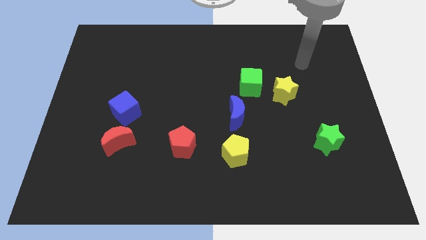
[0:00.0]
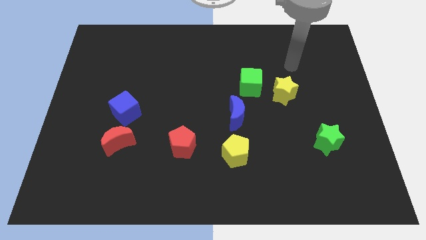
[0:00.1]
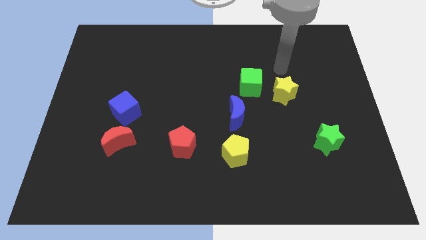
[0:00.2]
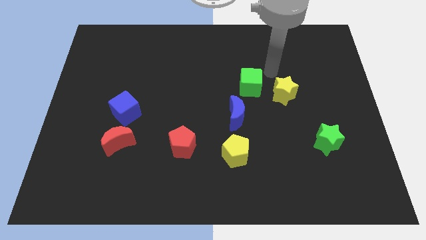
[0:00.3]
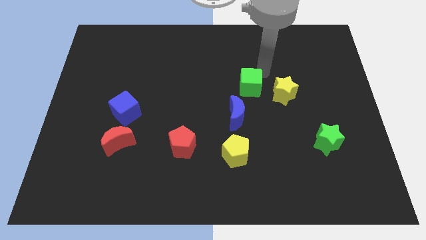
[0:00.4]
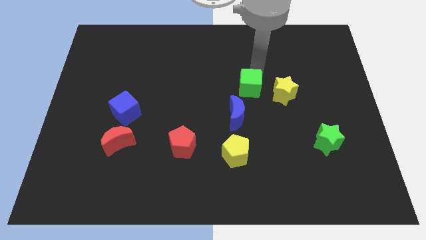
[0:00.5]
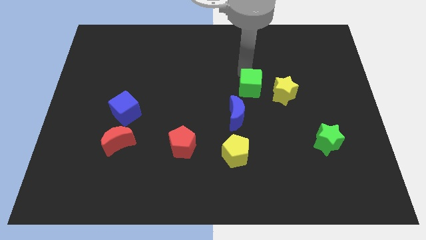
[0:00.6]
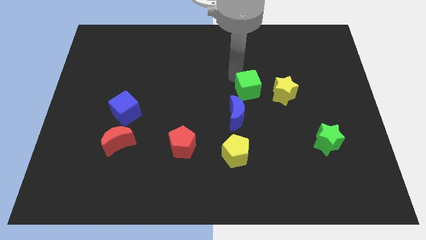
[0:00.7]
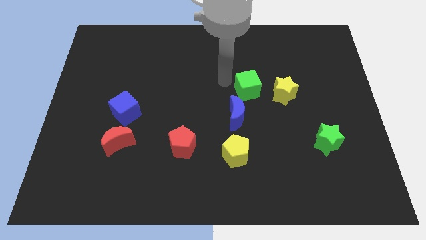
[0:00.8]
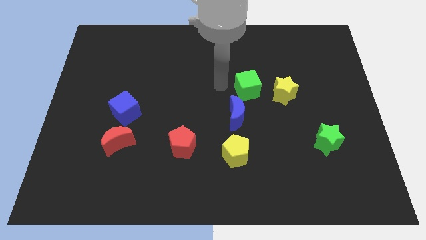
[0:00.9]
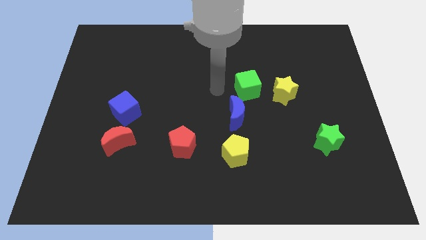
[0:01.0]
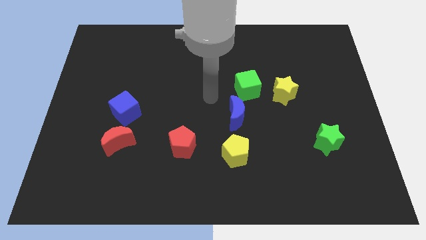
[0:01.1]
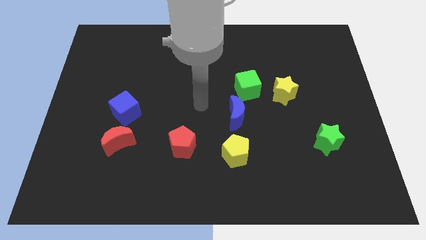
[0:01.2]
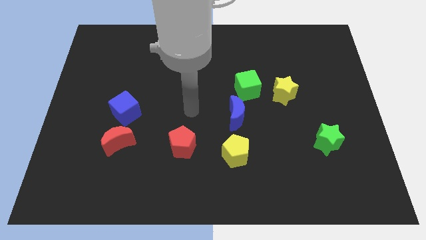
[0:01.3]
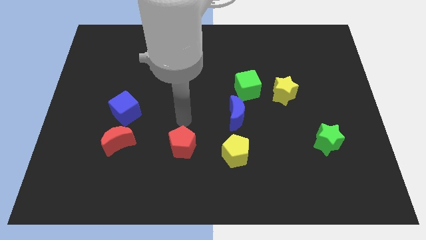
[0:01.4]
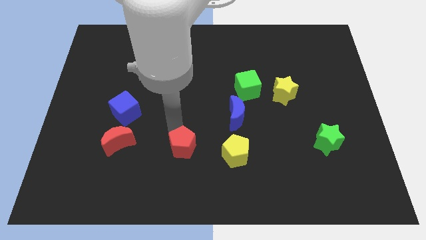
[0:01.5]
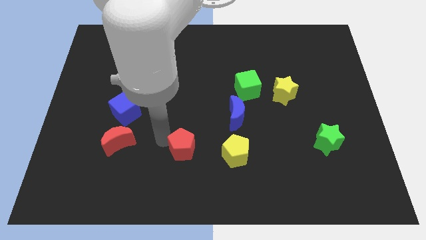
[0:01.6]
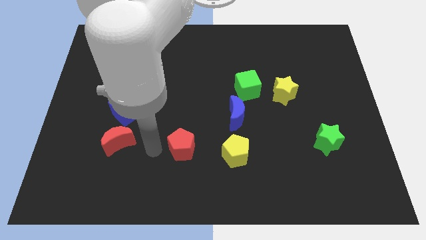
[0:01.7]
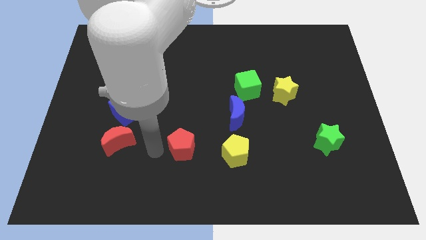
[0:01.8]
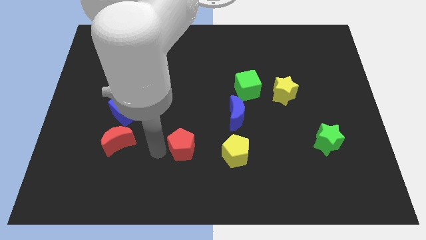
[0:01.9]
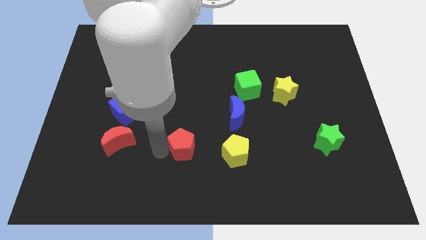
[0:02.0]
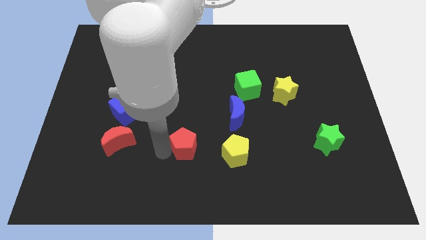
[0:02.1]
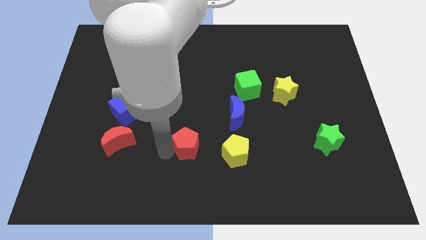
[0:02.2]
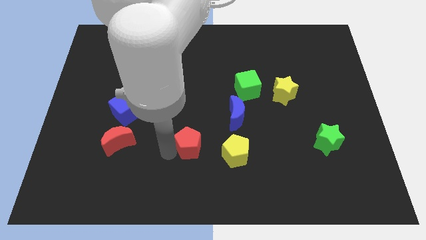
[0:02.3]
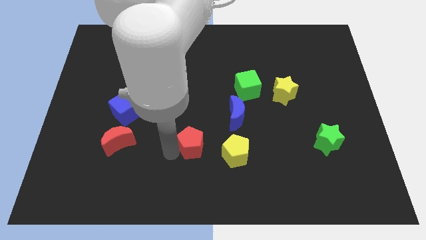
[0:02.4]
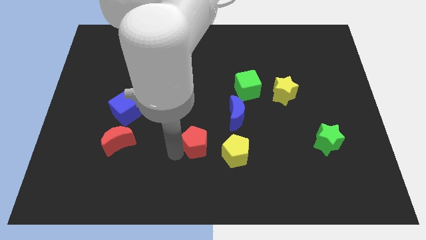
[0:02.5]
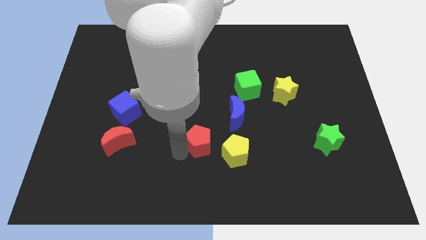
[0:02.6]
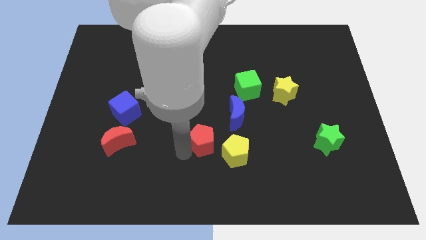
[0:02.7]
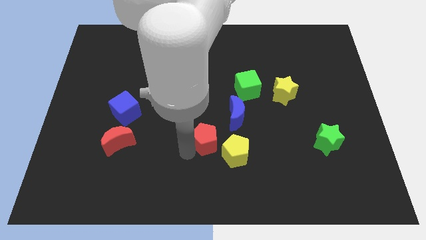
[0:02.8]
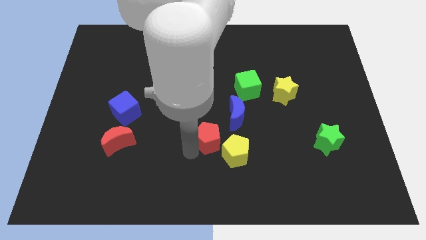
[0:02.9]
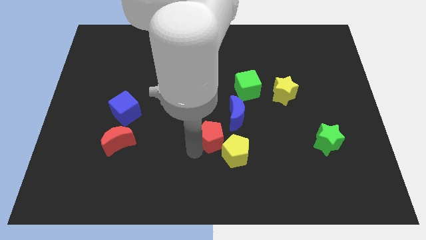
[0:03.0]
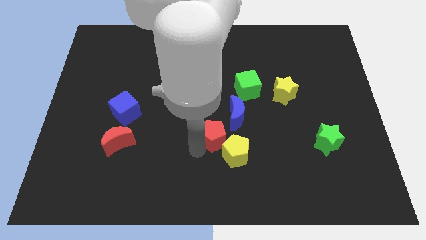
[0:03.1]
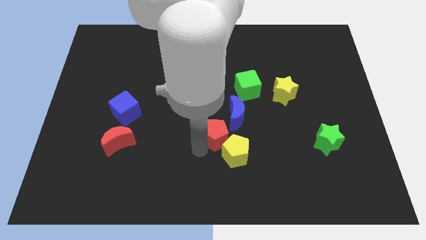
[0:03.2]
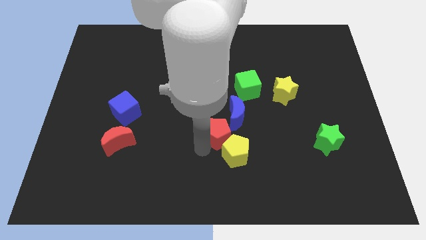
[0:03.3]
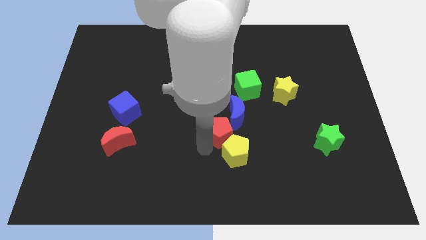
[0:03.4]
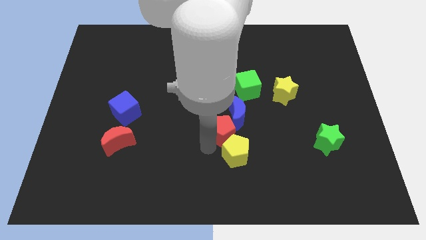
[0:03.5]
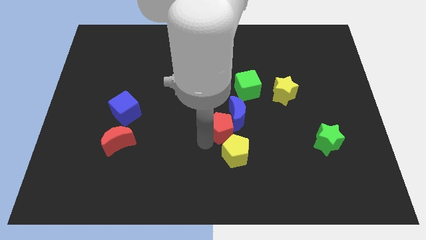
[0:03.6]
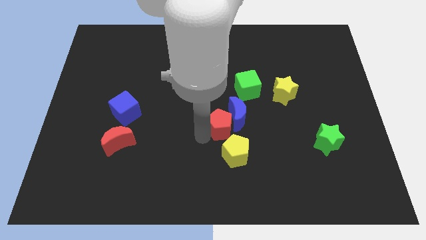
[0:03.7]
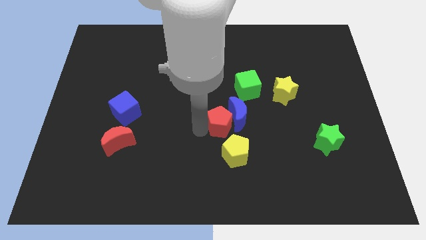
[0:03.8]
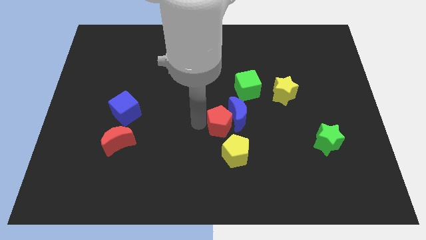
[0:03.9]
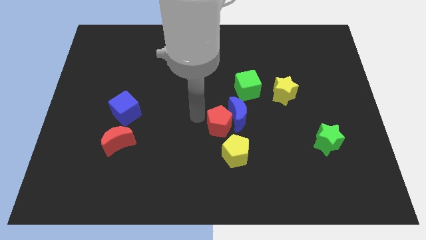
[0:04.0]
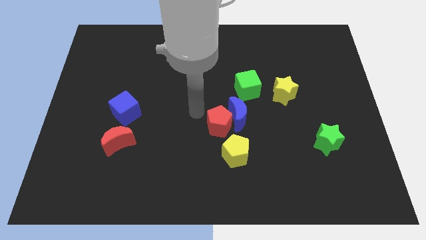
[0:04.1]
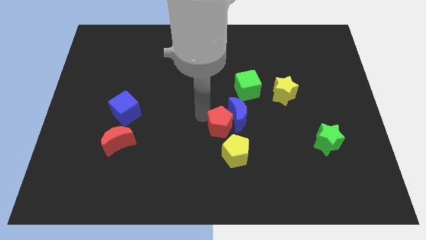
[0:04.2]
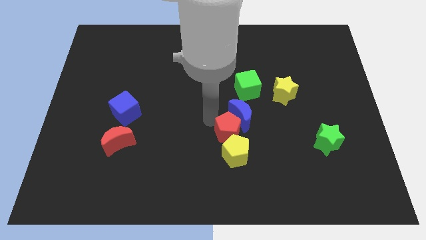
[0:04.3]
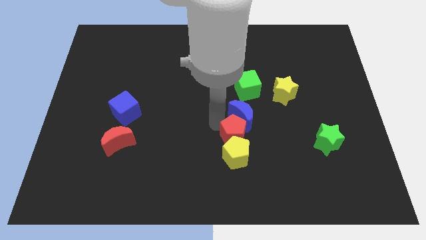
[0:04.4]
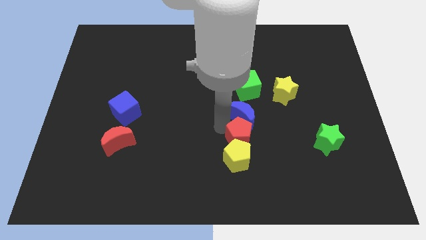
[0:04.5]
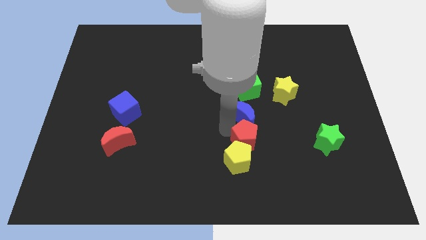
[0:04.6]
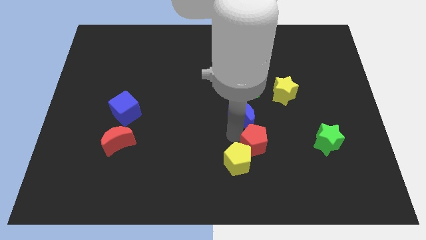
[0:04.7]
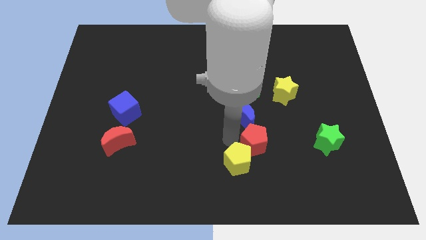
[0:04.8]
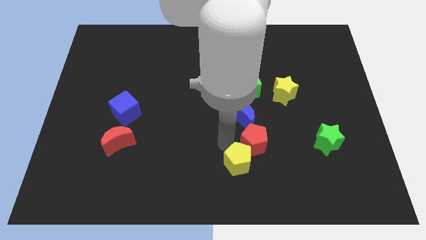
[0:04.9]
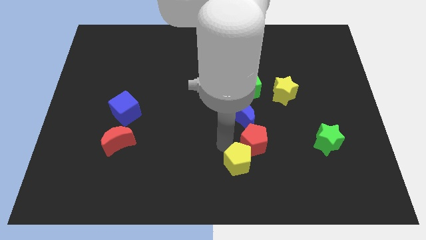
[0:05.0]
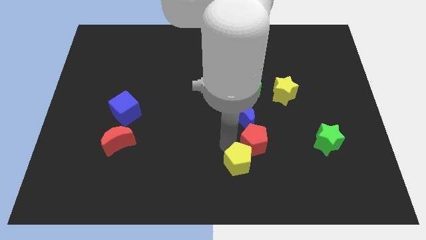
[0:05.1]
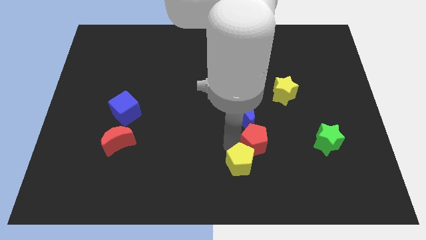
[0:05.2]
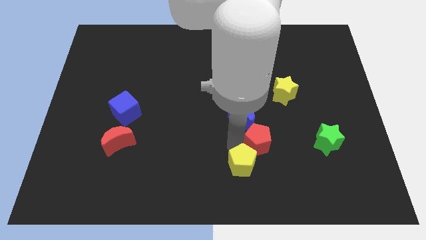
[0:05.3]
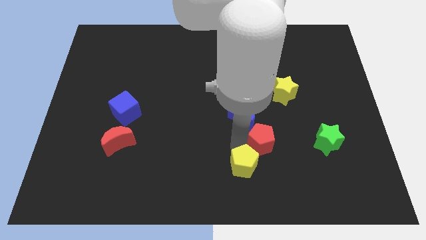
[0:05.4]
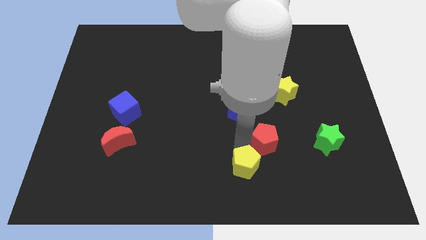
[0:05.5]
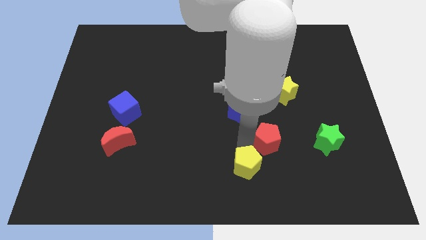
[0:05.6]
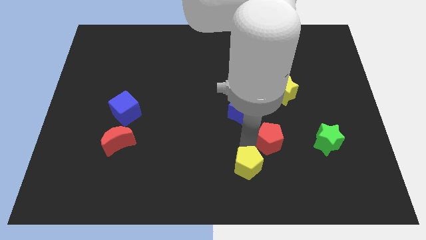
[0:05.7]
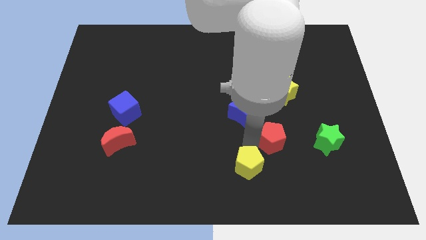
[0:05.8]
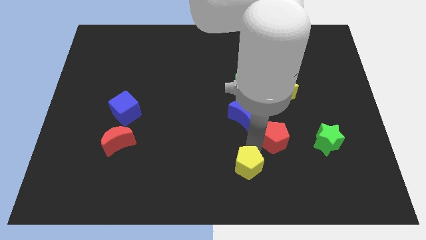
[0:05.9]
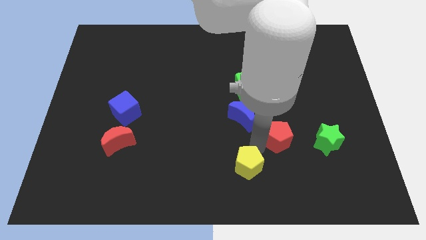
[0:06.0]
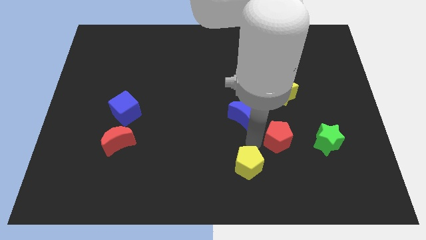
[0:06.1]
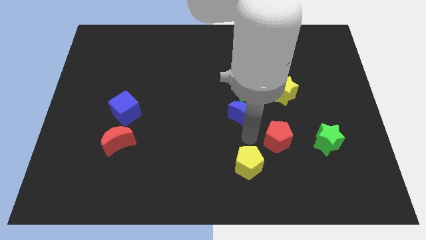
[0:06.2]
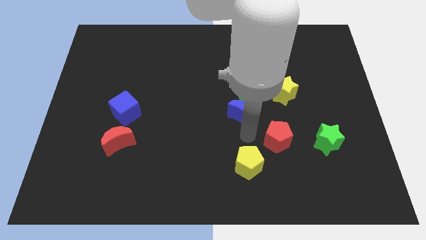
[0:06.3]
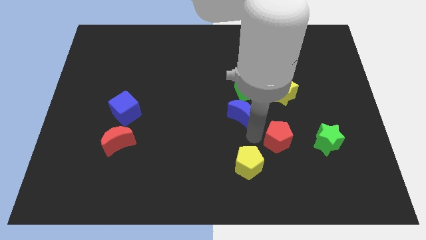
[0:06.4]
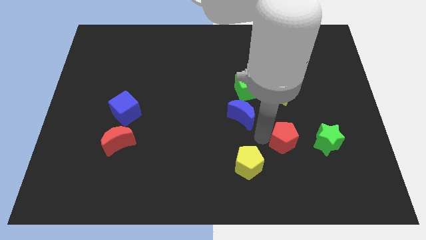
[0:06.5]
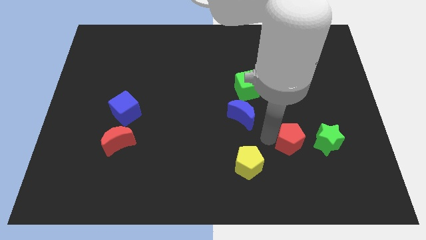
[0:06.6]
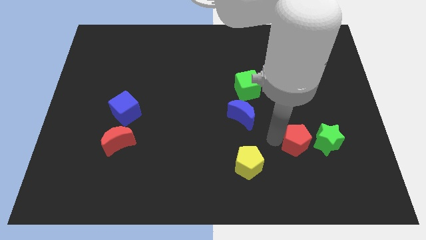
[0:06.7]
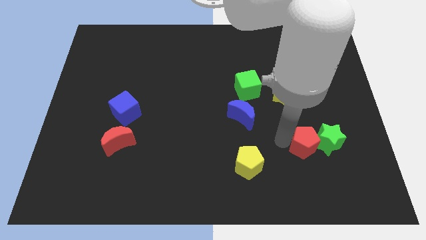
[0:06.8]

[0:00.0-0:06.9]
slide the red pentagon towards the green star
